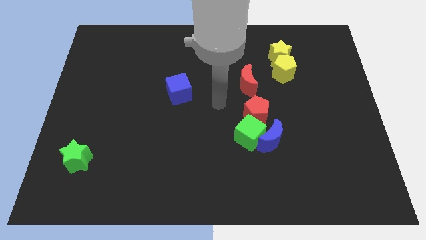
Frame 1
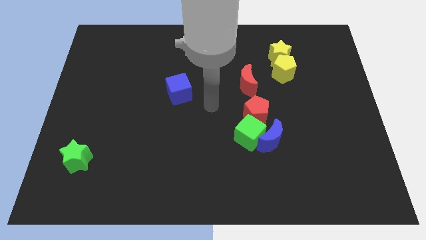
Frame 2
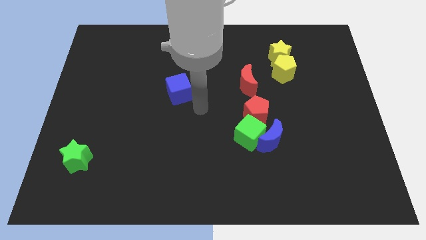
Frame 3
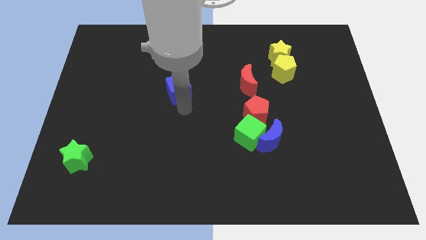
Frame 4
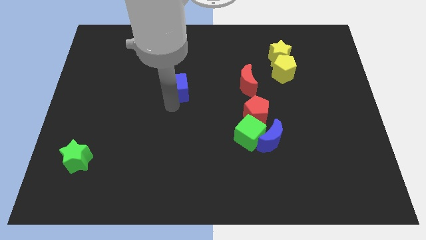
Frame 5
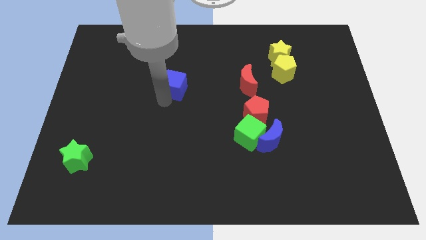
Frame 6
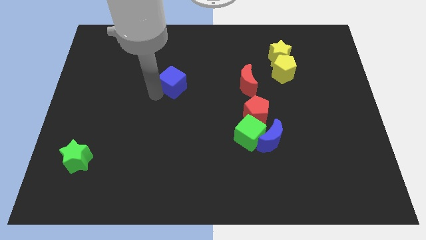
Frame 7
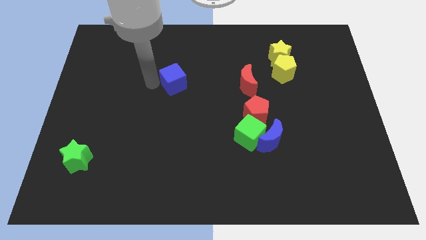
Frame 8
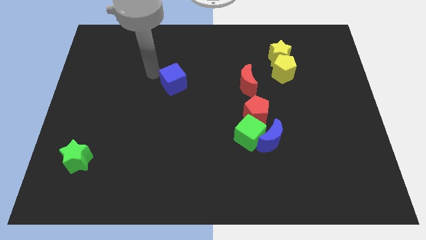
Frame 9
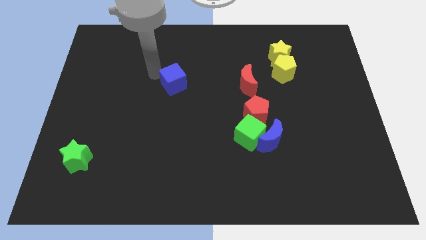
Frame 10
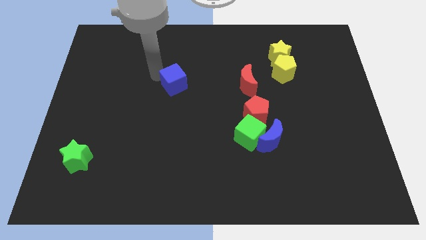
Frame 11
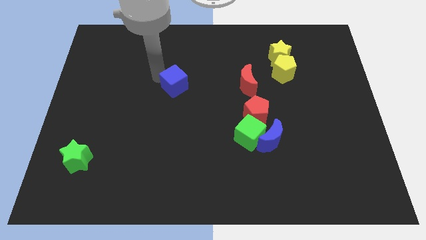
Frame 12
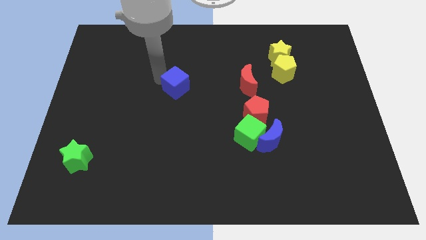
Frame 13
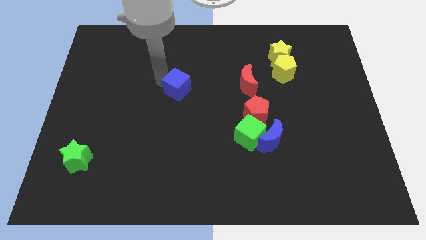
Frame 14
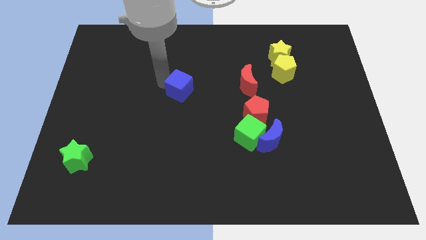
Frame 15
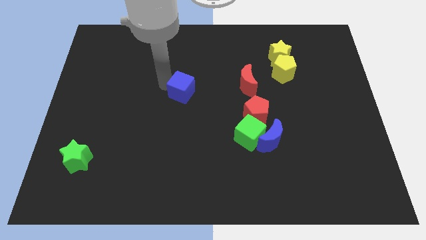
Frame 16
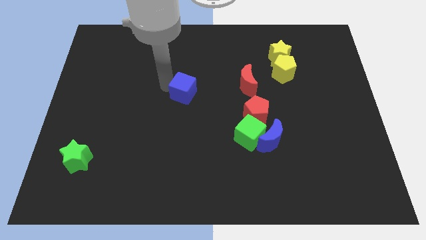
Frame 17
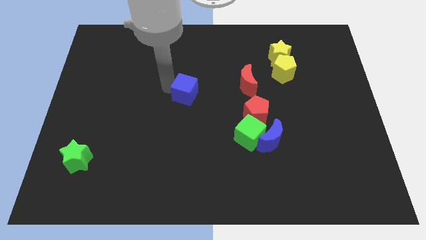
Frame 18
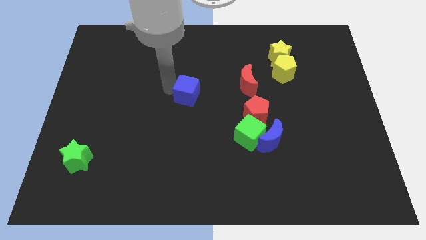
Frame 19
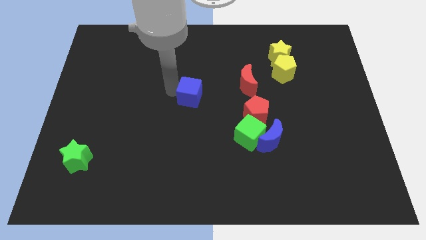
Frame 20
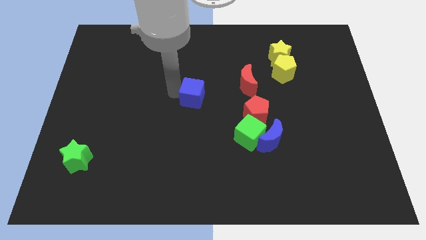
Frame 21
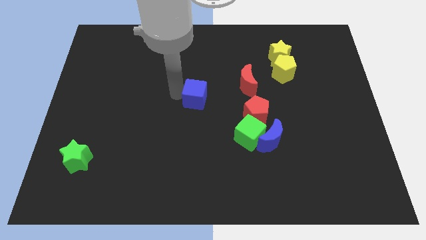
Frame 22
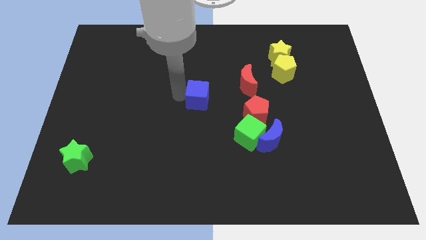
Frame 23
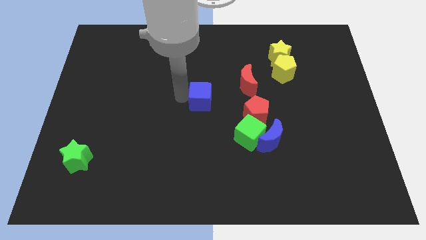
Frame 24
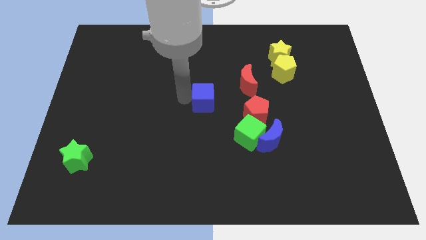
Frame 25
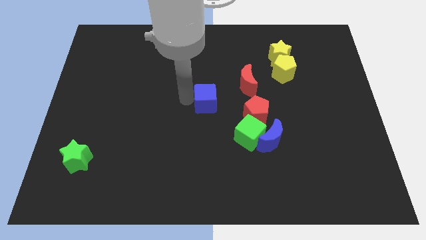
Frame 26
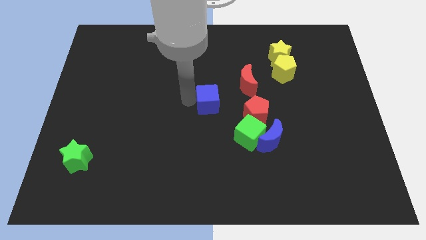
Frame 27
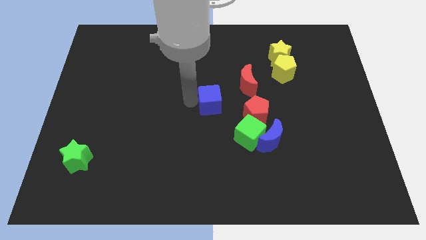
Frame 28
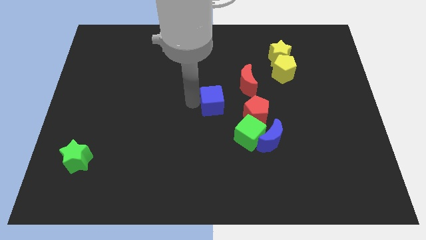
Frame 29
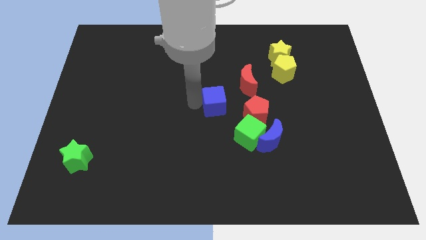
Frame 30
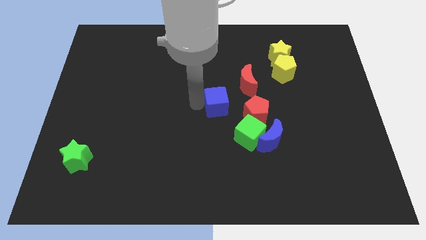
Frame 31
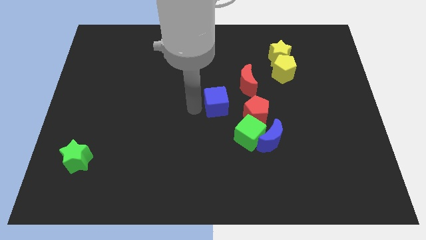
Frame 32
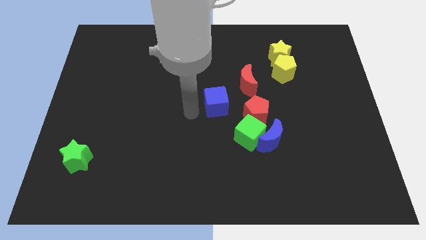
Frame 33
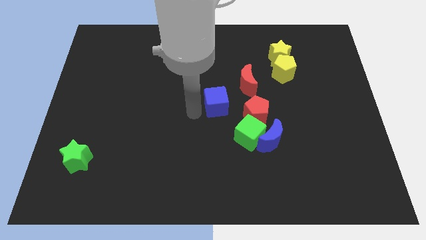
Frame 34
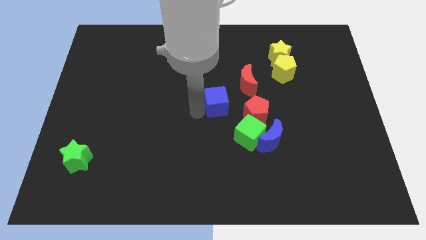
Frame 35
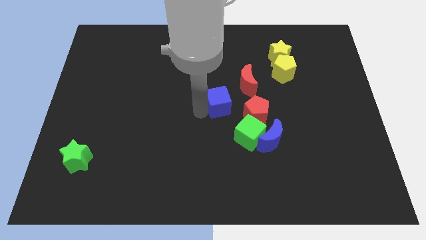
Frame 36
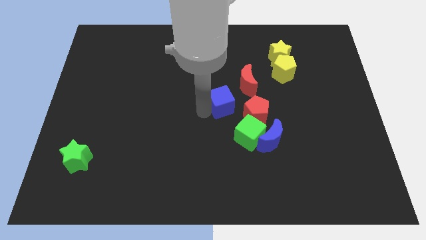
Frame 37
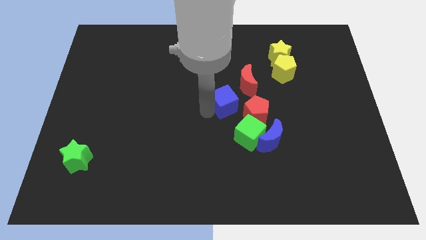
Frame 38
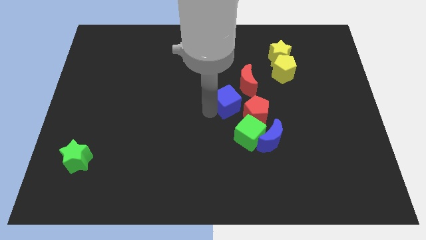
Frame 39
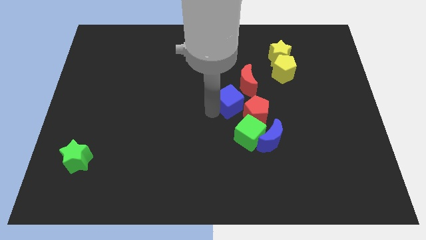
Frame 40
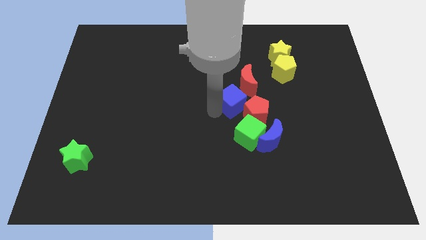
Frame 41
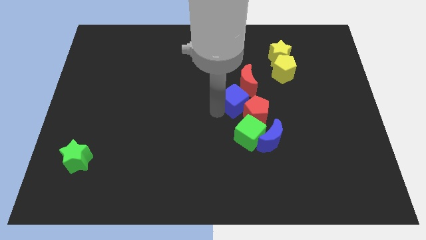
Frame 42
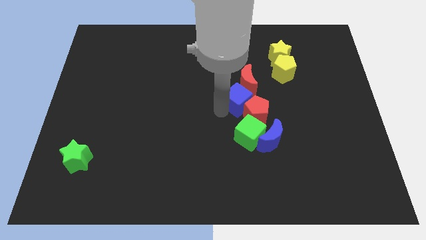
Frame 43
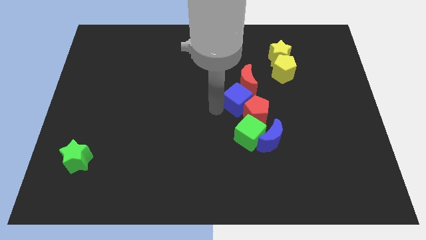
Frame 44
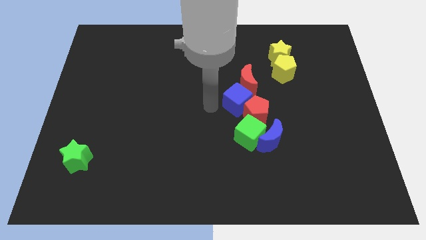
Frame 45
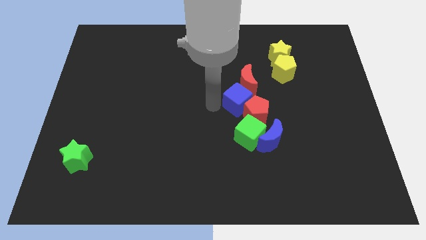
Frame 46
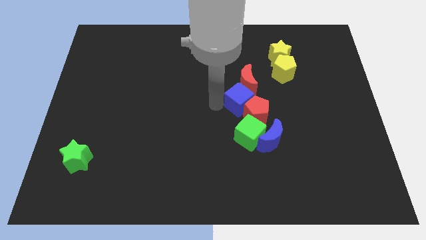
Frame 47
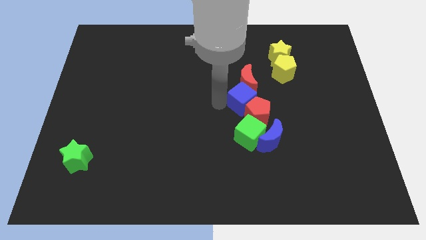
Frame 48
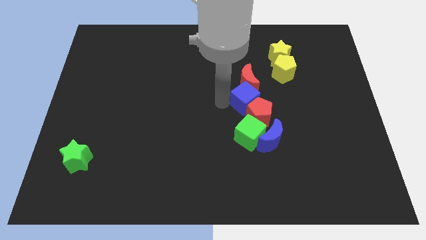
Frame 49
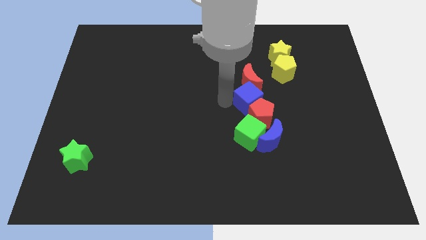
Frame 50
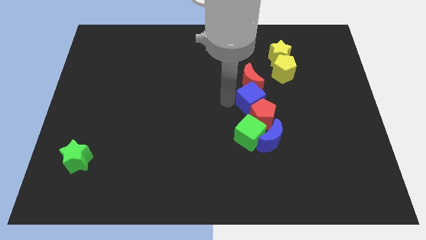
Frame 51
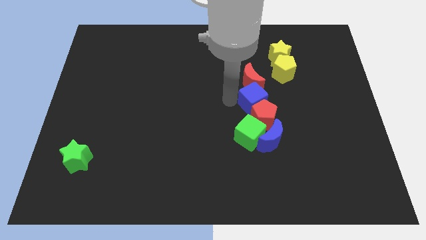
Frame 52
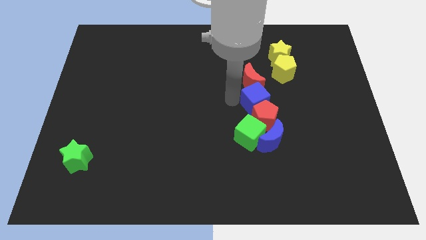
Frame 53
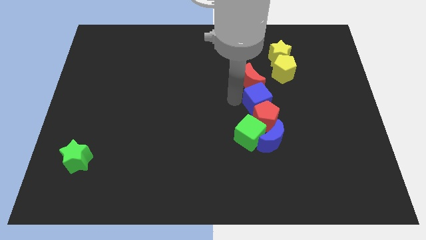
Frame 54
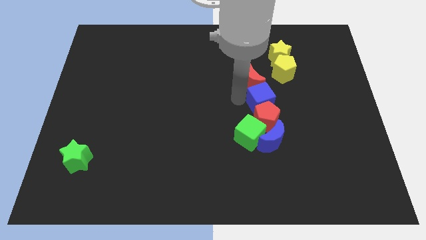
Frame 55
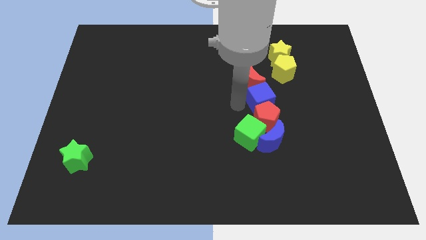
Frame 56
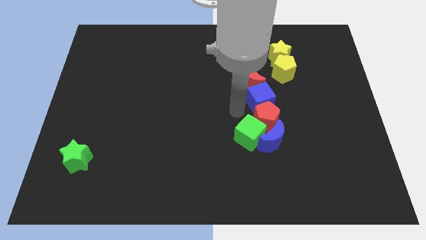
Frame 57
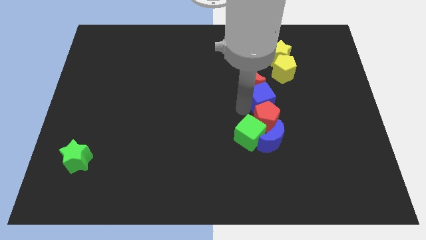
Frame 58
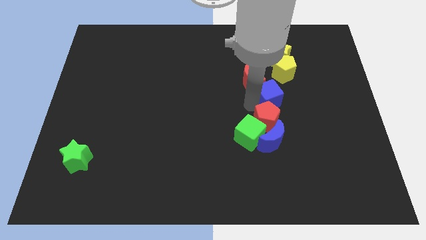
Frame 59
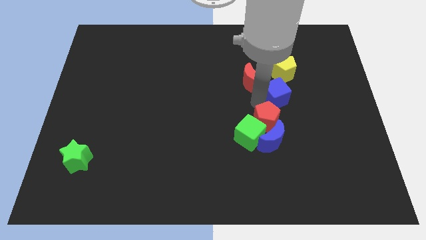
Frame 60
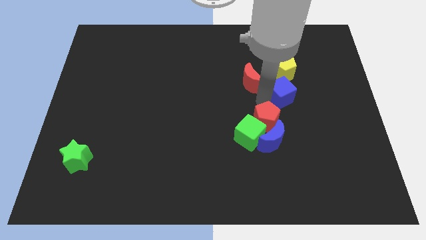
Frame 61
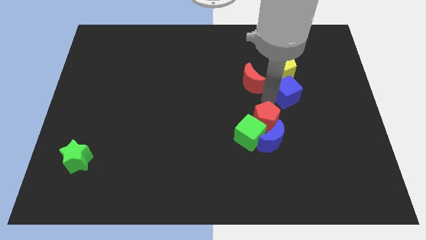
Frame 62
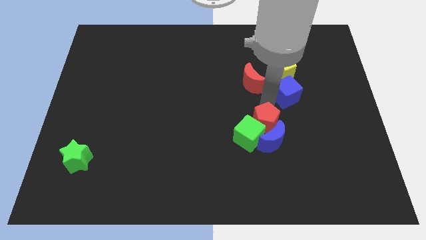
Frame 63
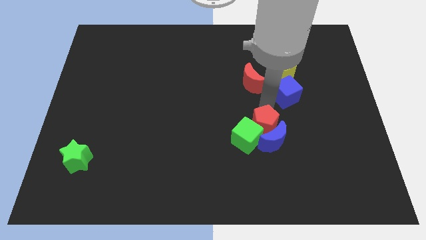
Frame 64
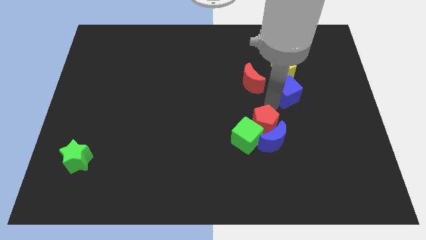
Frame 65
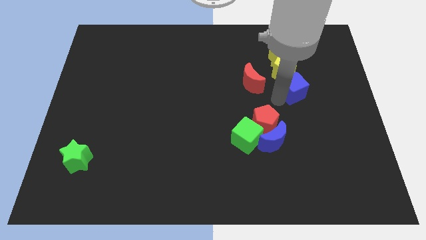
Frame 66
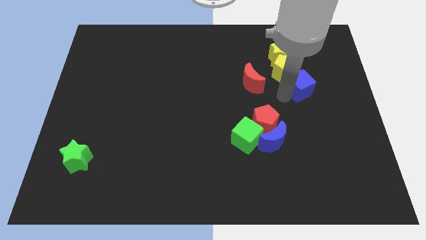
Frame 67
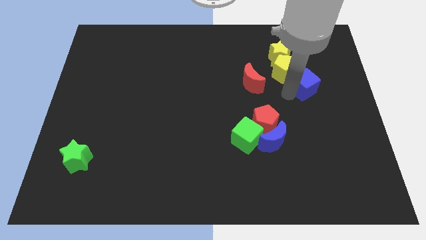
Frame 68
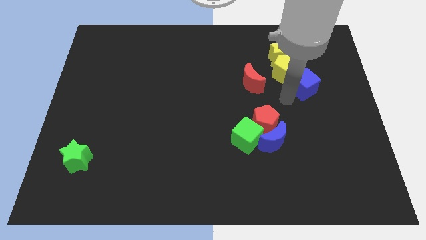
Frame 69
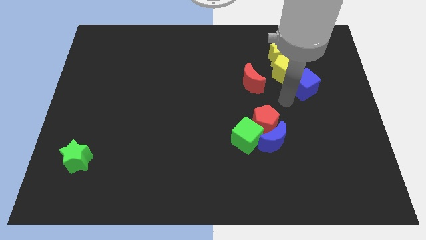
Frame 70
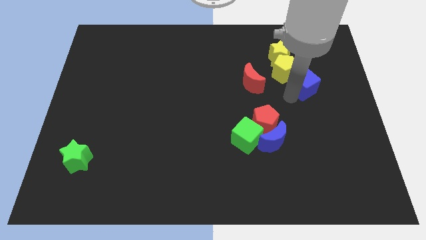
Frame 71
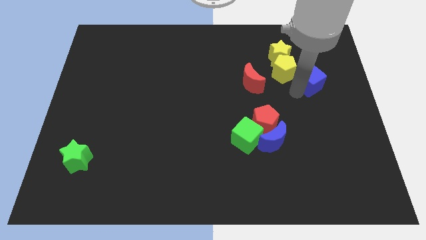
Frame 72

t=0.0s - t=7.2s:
slide the blue cube to the right of the yellow pentagon

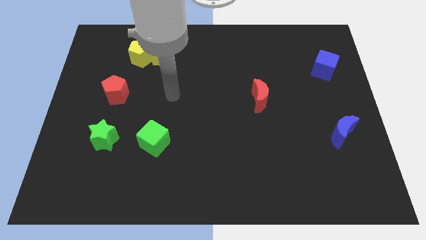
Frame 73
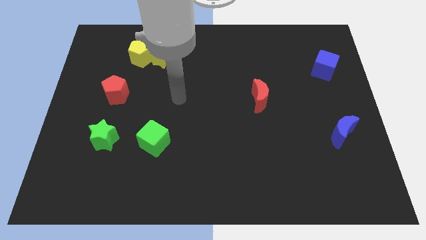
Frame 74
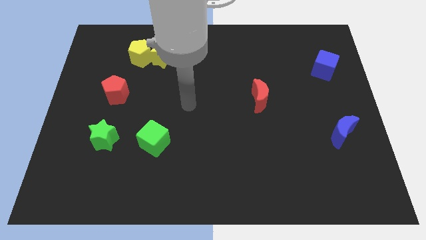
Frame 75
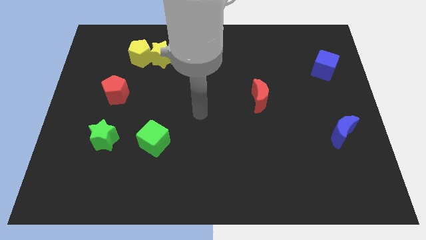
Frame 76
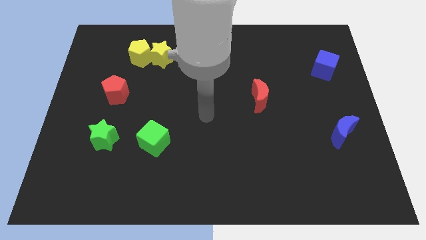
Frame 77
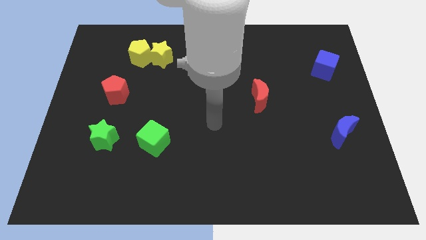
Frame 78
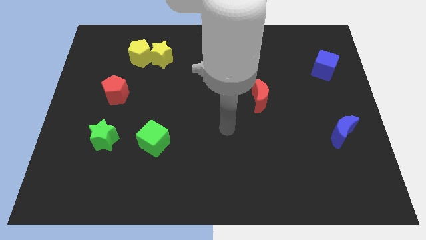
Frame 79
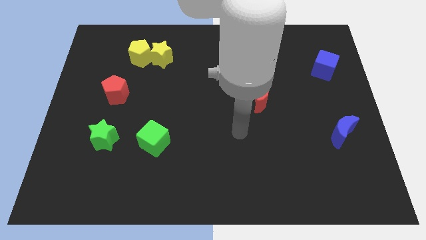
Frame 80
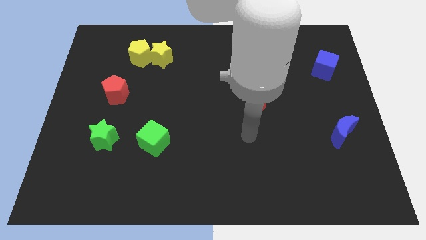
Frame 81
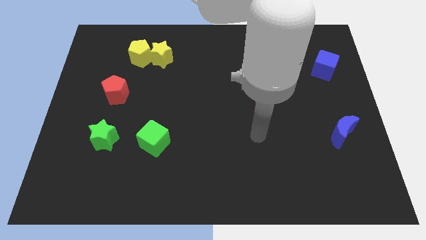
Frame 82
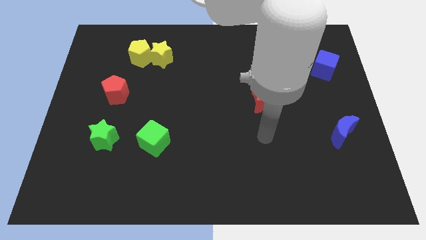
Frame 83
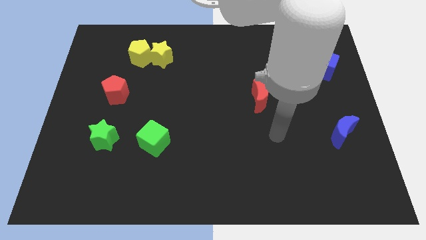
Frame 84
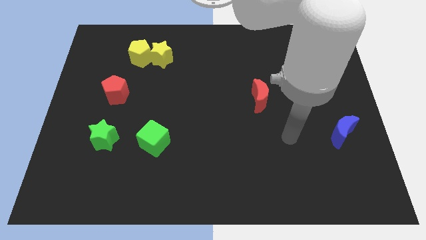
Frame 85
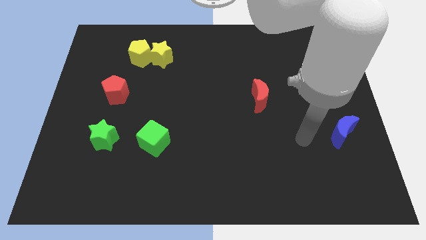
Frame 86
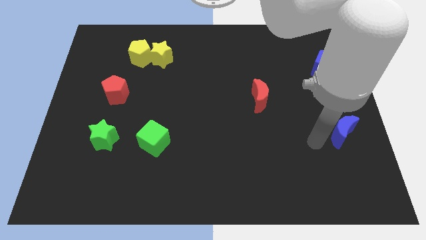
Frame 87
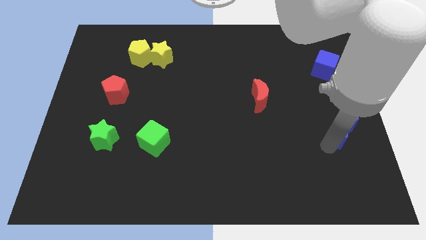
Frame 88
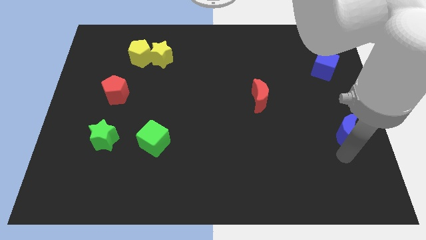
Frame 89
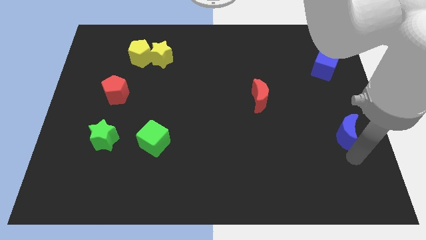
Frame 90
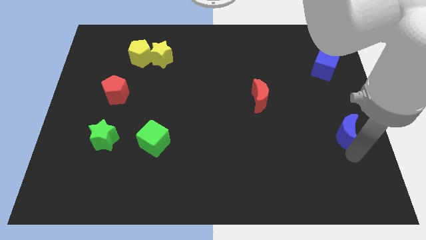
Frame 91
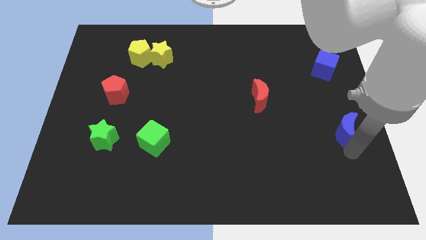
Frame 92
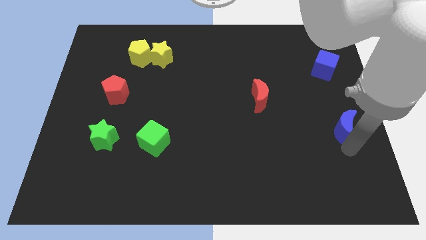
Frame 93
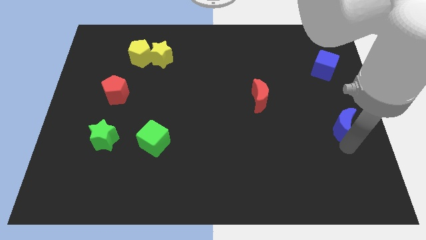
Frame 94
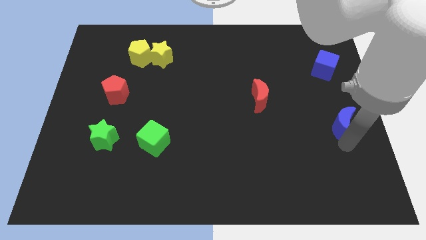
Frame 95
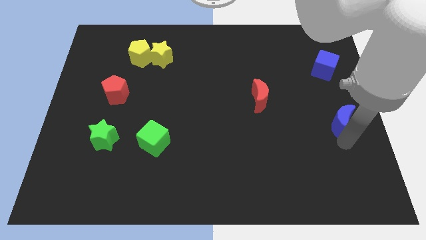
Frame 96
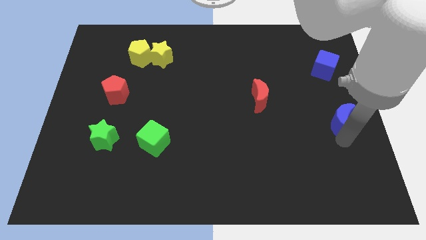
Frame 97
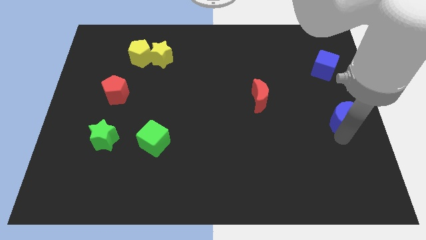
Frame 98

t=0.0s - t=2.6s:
put the blue moon to the bottom side of the blue cube
